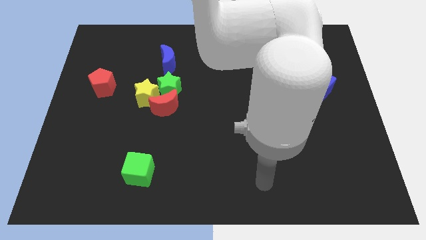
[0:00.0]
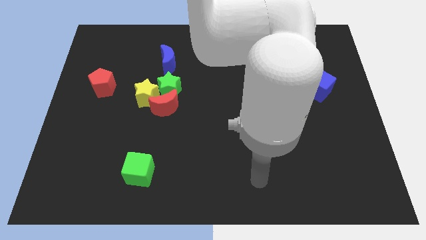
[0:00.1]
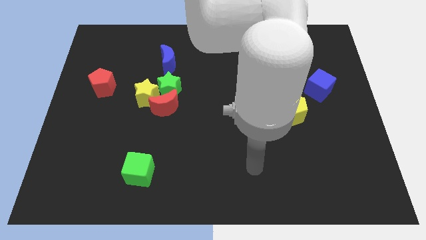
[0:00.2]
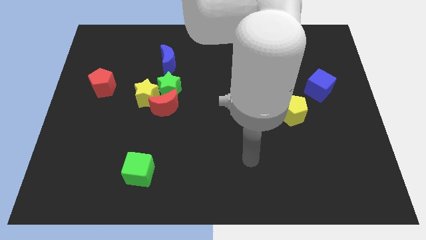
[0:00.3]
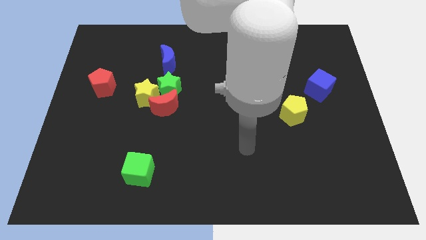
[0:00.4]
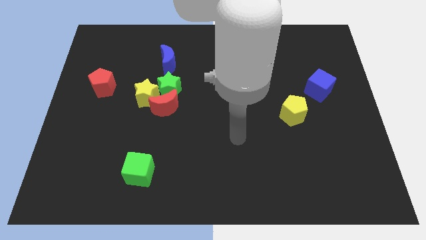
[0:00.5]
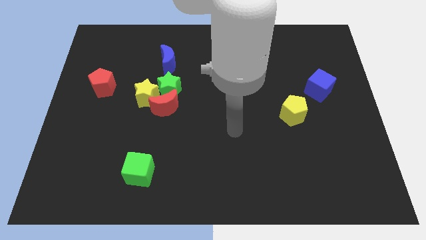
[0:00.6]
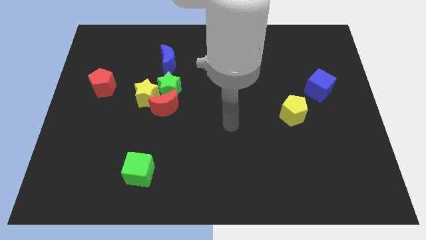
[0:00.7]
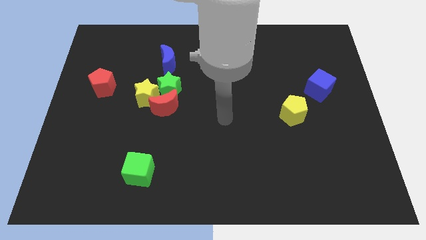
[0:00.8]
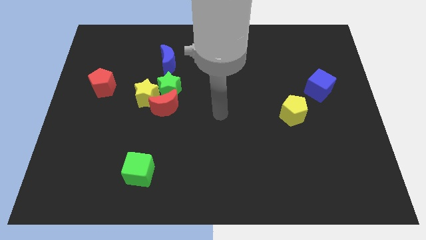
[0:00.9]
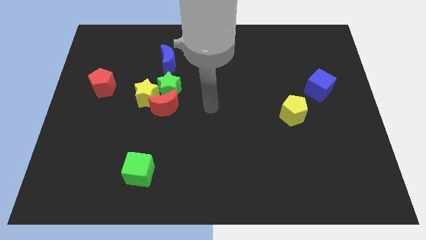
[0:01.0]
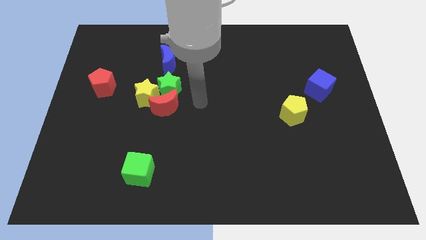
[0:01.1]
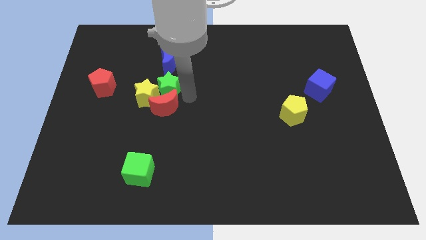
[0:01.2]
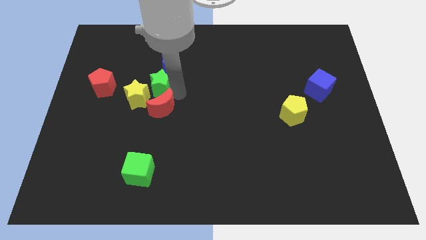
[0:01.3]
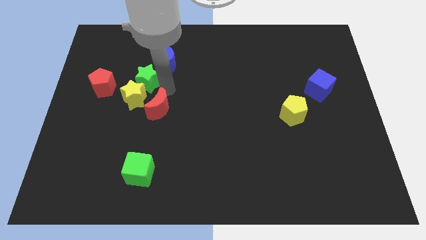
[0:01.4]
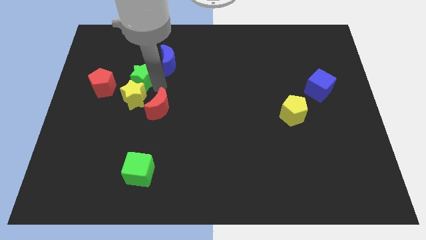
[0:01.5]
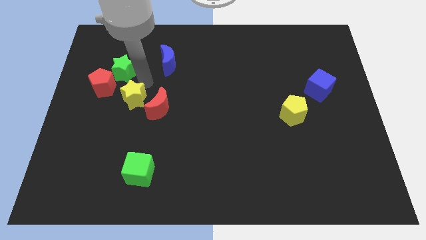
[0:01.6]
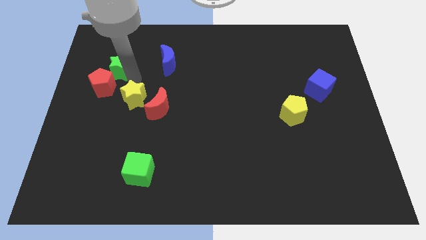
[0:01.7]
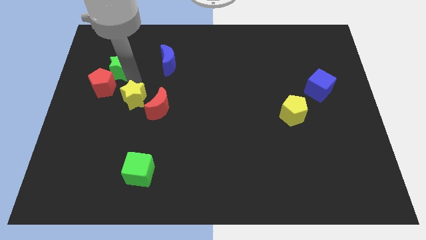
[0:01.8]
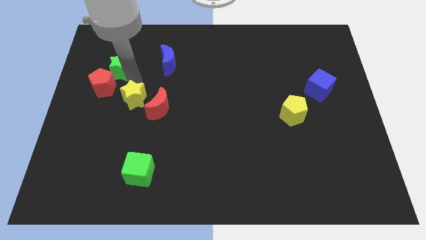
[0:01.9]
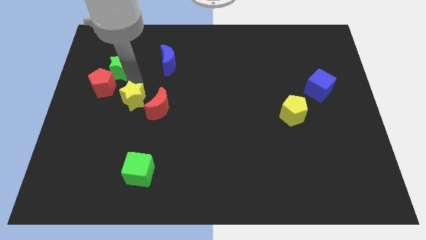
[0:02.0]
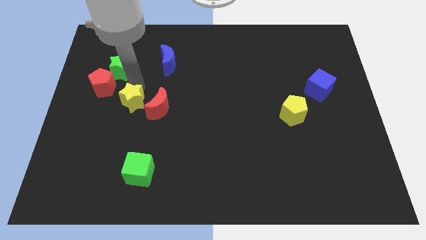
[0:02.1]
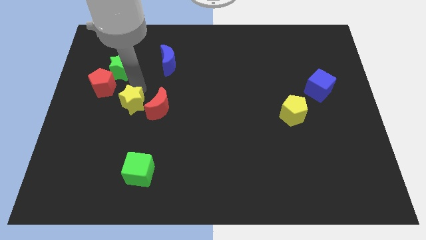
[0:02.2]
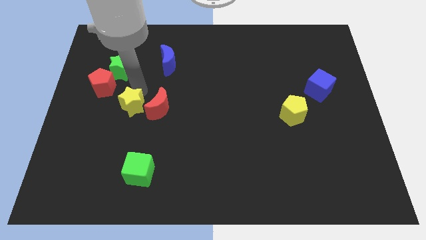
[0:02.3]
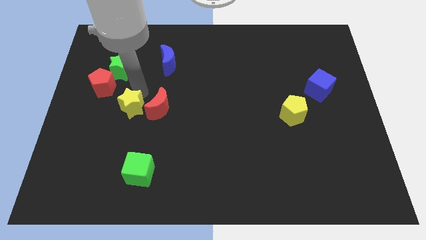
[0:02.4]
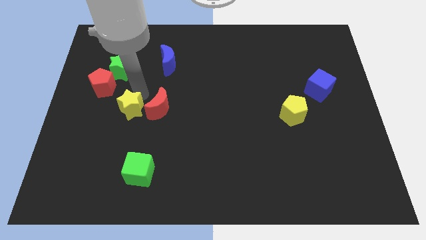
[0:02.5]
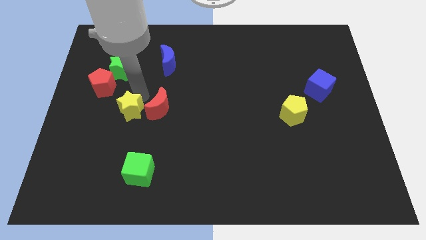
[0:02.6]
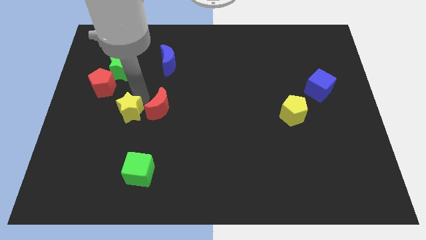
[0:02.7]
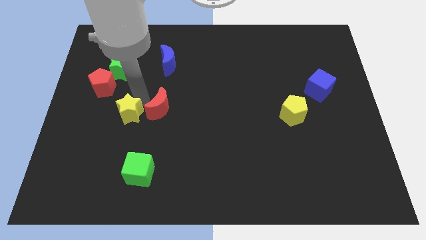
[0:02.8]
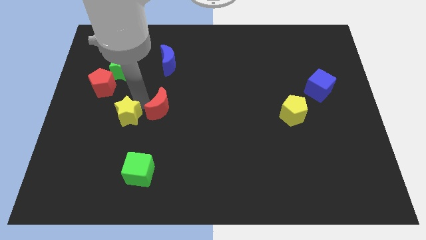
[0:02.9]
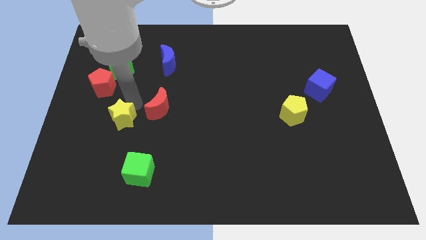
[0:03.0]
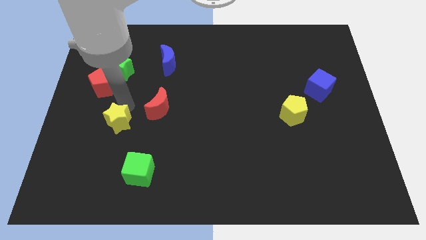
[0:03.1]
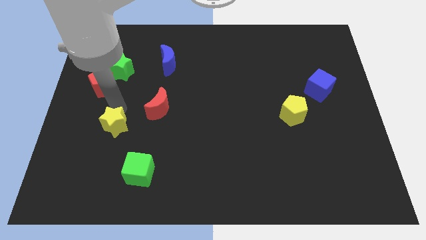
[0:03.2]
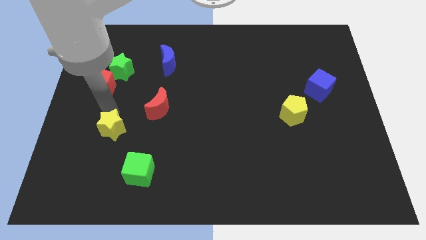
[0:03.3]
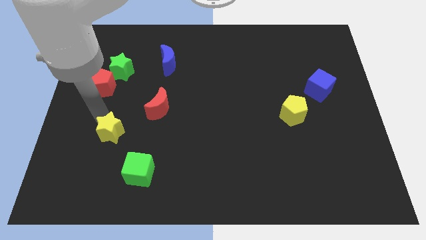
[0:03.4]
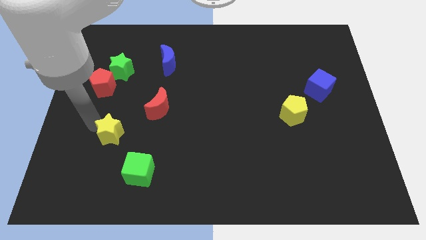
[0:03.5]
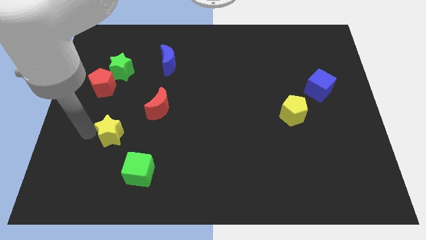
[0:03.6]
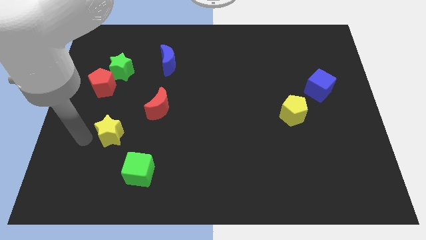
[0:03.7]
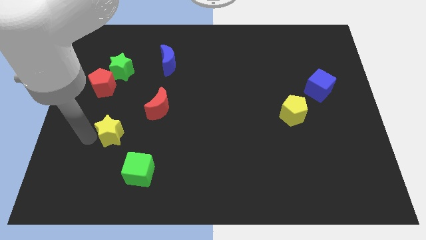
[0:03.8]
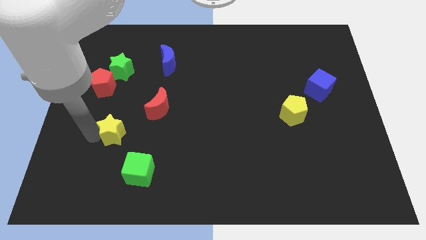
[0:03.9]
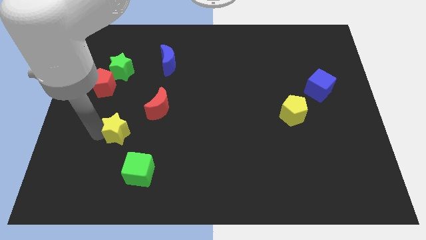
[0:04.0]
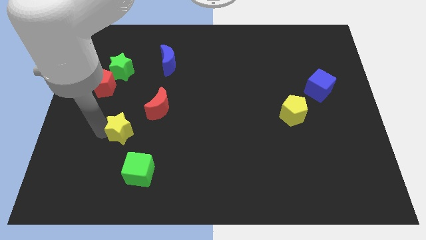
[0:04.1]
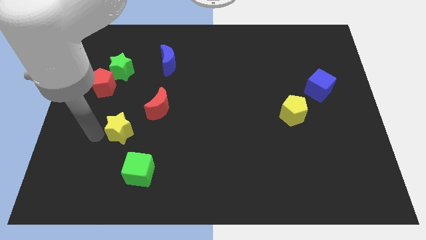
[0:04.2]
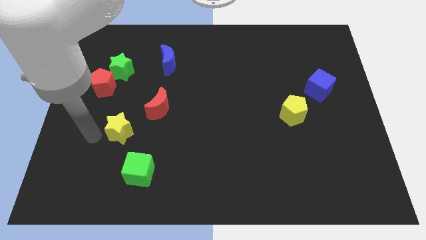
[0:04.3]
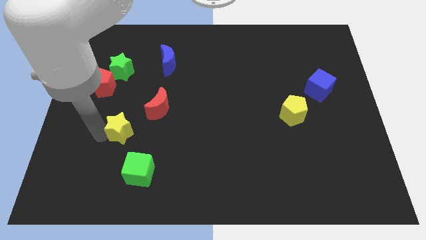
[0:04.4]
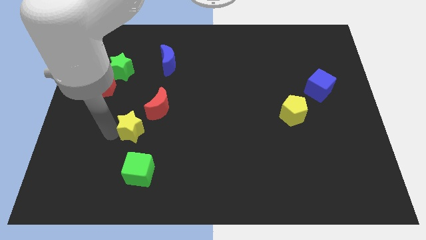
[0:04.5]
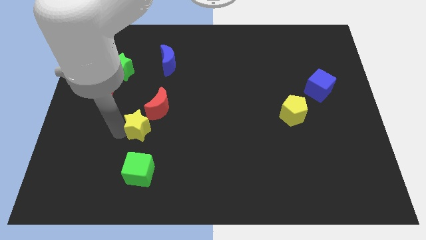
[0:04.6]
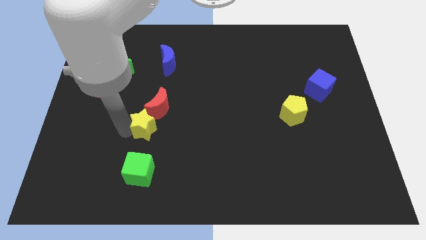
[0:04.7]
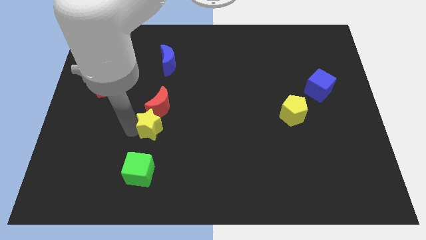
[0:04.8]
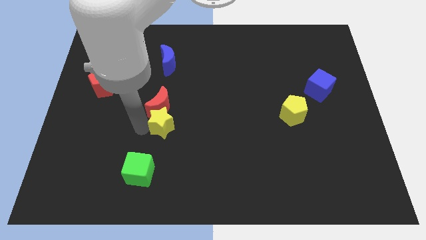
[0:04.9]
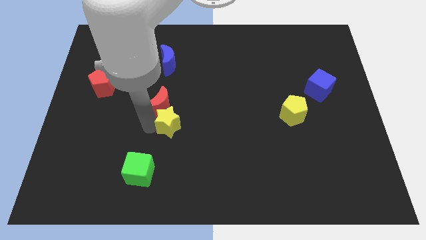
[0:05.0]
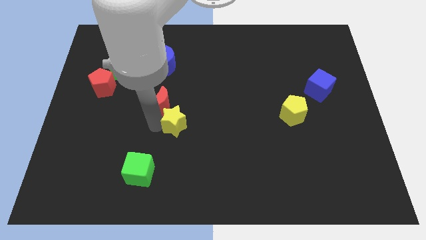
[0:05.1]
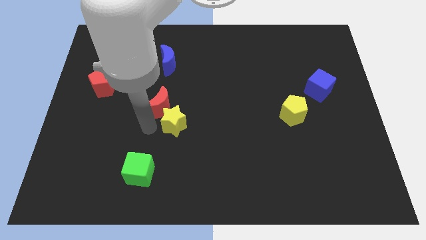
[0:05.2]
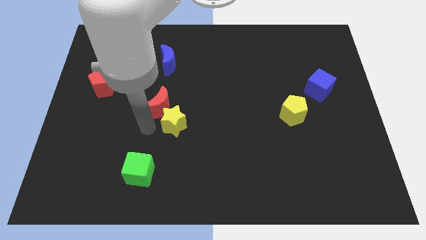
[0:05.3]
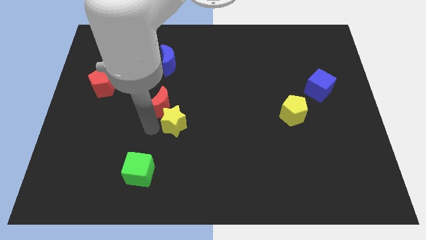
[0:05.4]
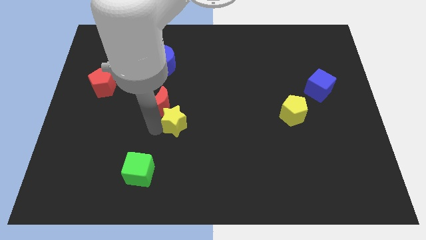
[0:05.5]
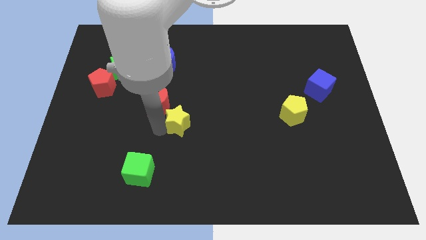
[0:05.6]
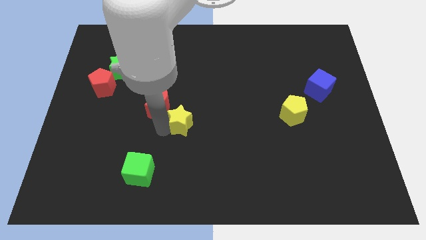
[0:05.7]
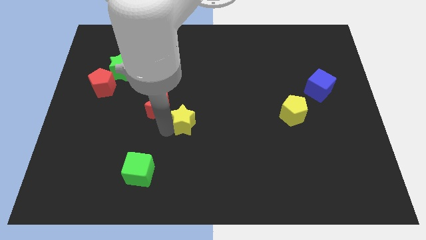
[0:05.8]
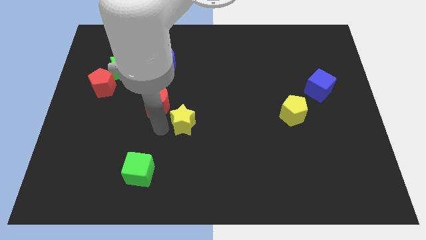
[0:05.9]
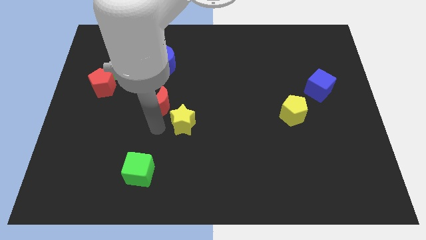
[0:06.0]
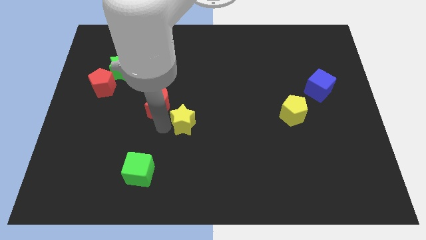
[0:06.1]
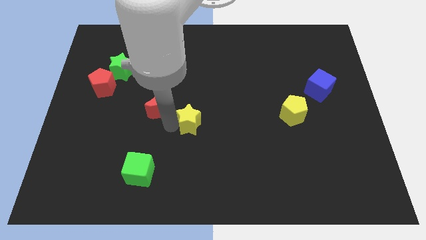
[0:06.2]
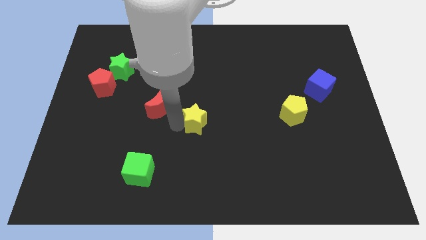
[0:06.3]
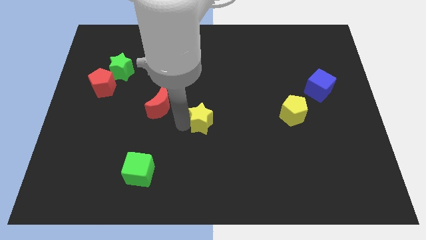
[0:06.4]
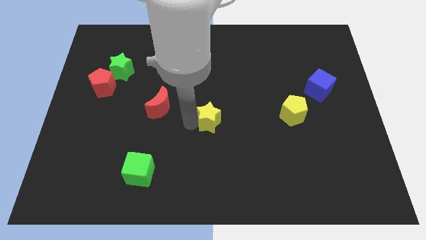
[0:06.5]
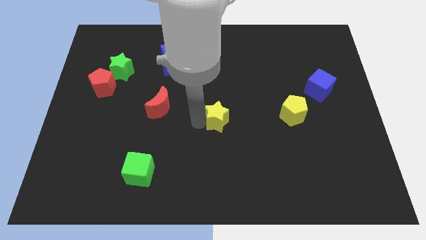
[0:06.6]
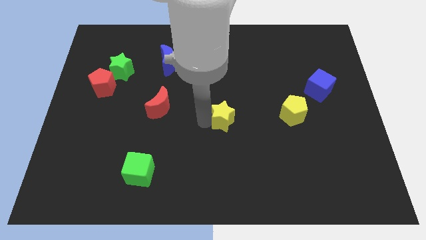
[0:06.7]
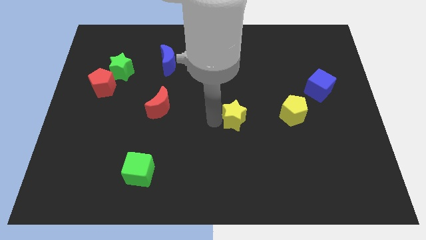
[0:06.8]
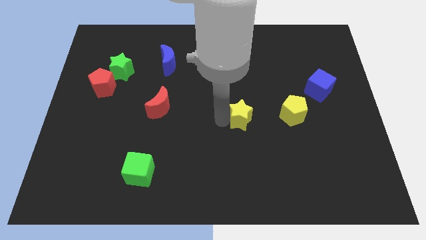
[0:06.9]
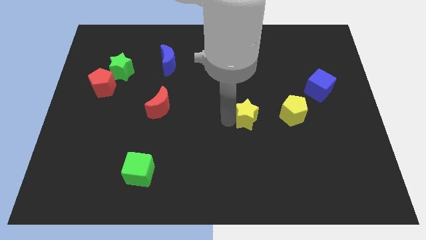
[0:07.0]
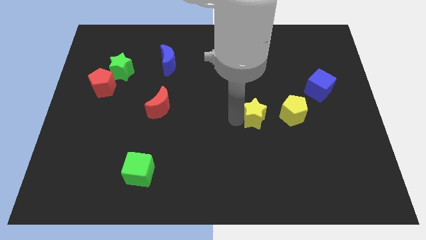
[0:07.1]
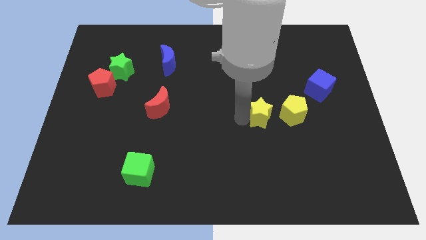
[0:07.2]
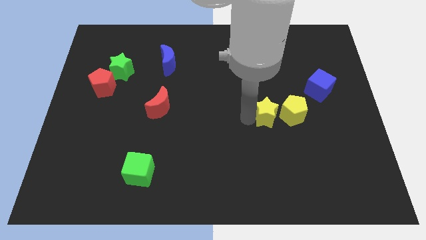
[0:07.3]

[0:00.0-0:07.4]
slide the yellow star close to the yellow pentagon
